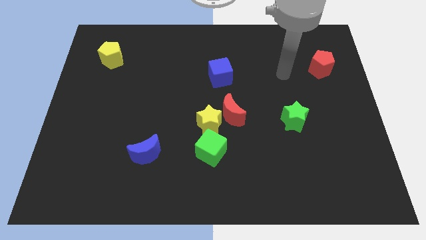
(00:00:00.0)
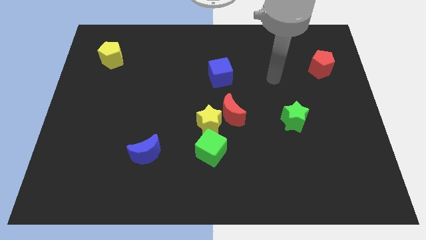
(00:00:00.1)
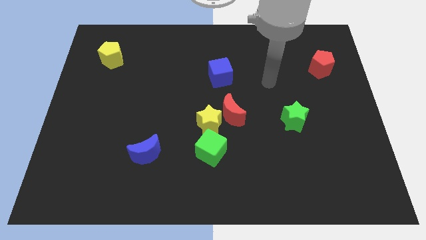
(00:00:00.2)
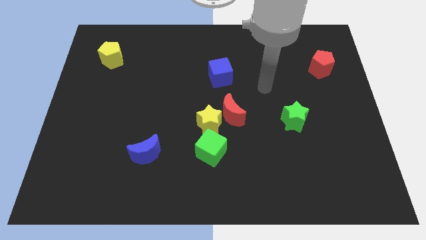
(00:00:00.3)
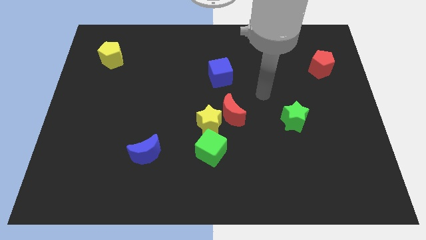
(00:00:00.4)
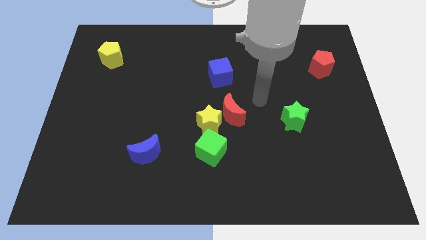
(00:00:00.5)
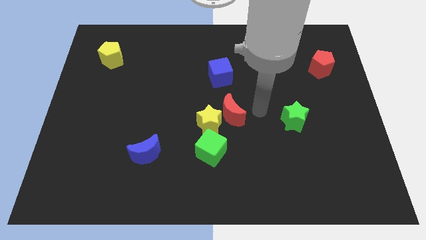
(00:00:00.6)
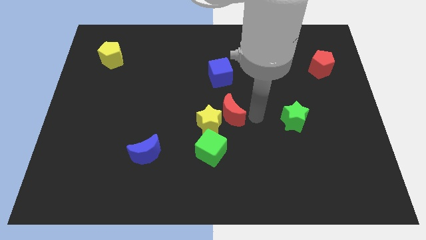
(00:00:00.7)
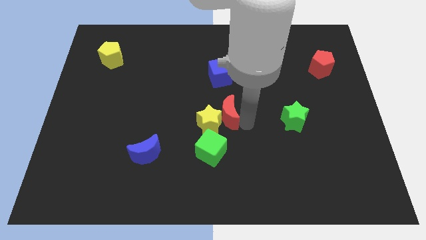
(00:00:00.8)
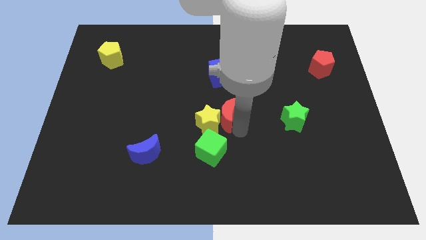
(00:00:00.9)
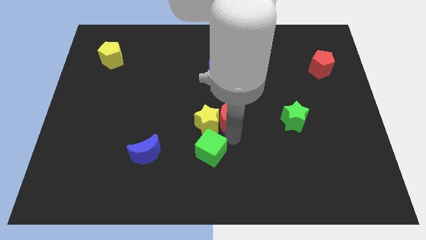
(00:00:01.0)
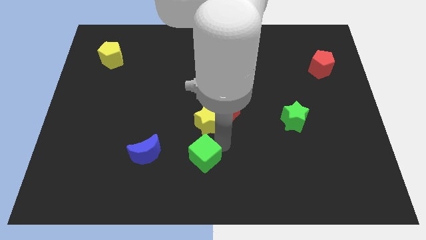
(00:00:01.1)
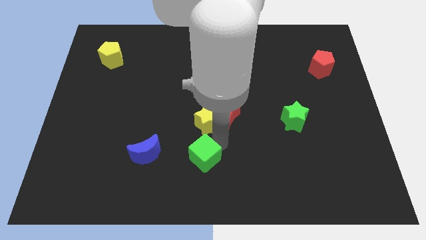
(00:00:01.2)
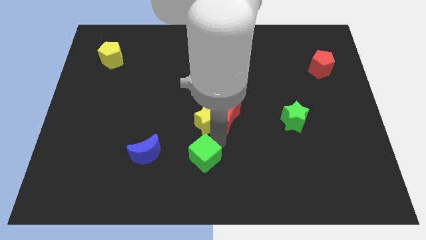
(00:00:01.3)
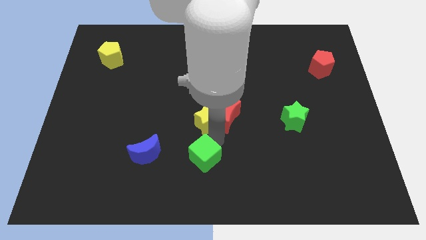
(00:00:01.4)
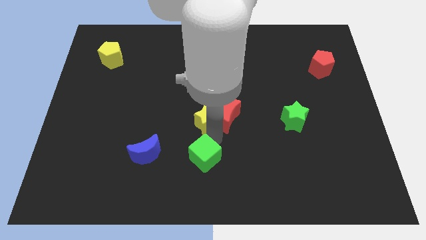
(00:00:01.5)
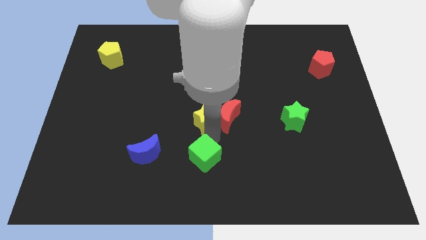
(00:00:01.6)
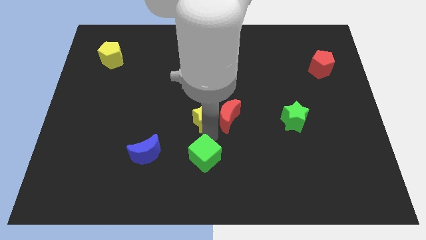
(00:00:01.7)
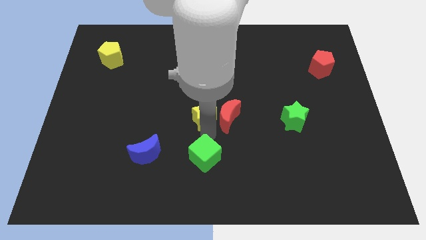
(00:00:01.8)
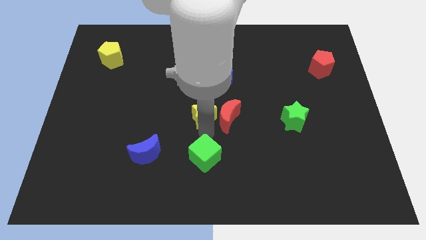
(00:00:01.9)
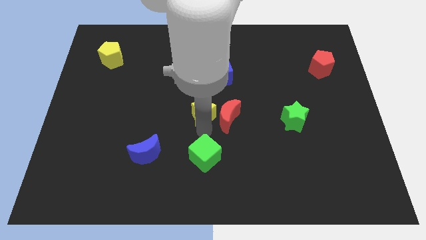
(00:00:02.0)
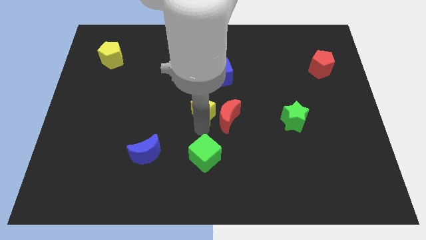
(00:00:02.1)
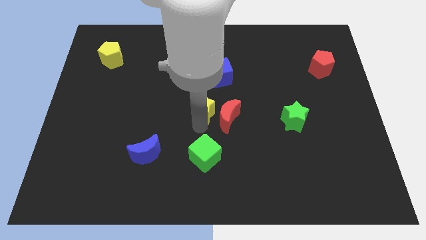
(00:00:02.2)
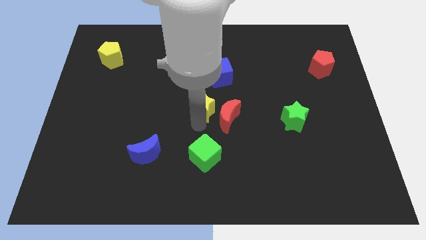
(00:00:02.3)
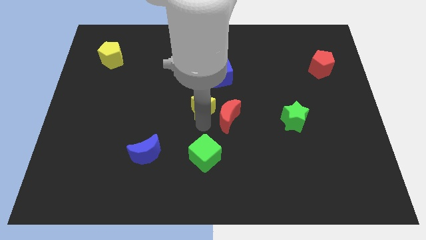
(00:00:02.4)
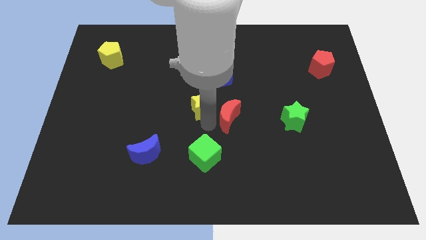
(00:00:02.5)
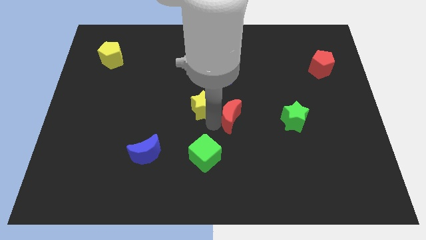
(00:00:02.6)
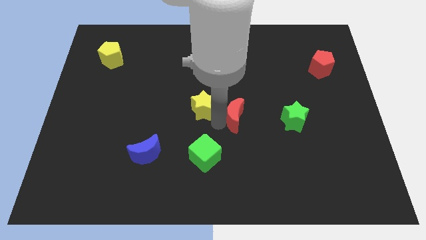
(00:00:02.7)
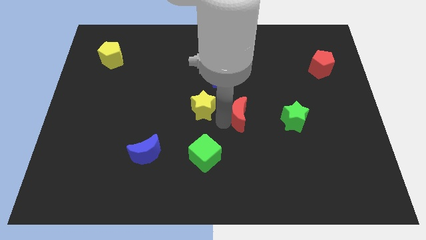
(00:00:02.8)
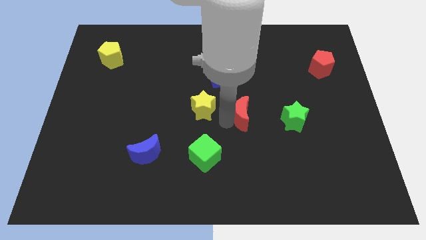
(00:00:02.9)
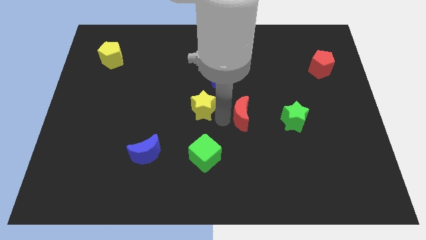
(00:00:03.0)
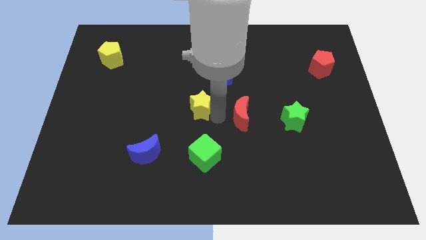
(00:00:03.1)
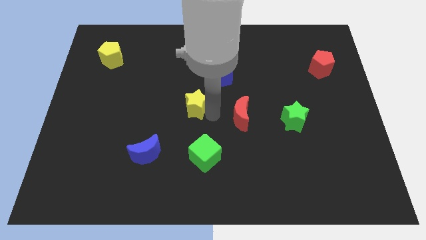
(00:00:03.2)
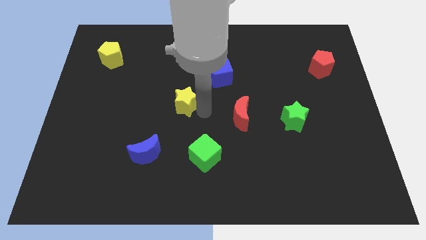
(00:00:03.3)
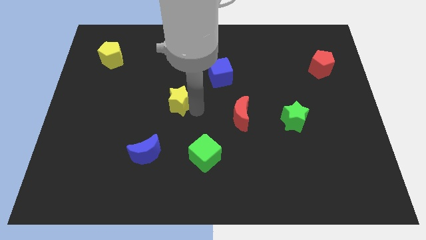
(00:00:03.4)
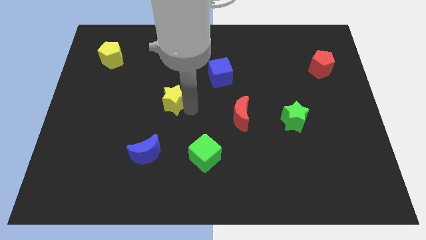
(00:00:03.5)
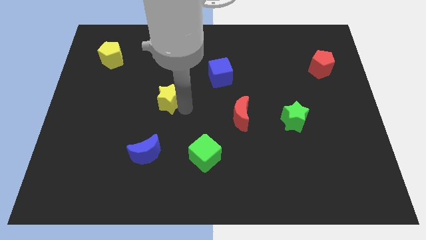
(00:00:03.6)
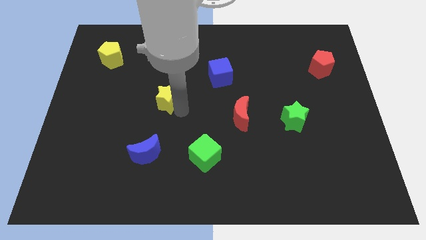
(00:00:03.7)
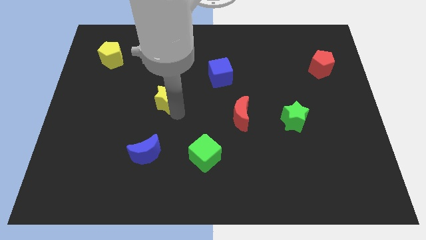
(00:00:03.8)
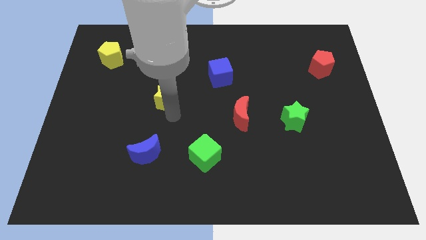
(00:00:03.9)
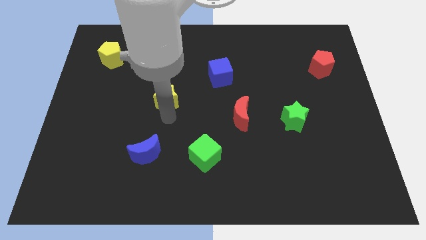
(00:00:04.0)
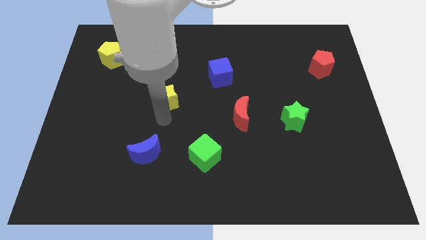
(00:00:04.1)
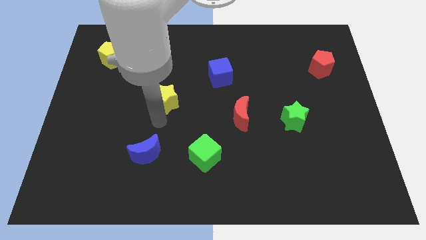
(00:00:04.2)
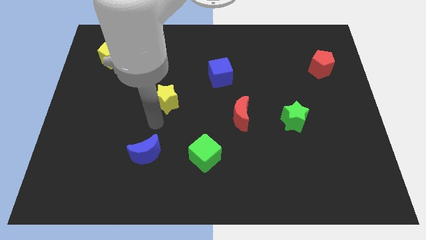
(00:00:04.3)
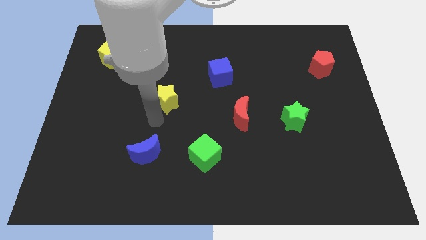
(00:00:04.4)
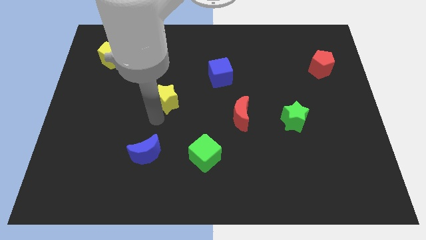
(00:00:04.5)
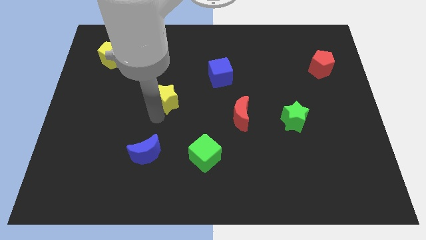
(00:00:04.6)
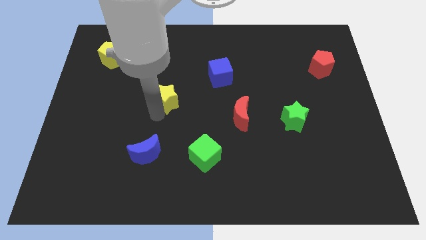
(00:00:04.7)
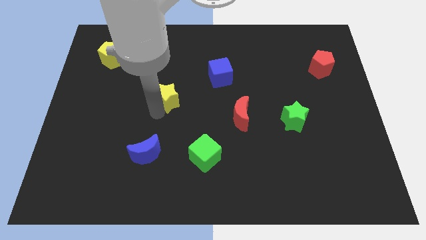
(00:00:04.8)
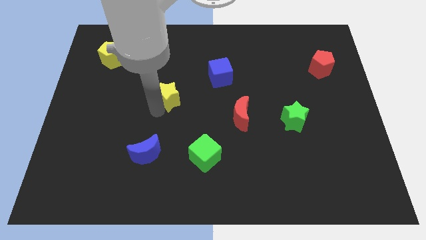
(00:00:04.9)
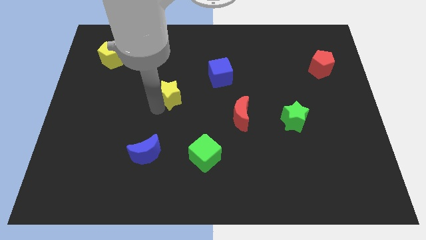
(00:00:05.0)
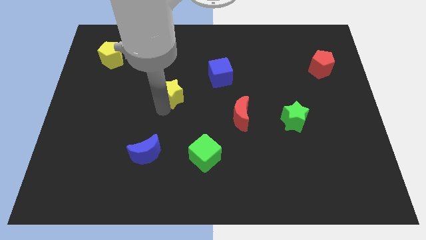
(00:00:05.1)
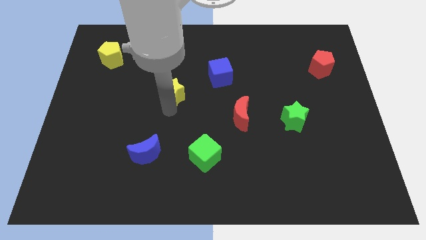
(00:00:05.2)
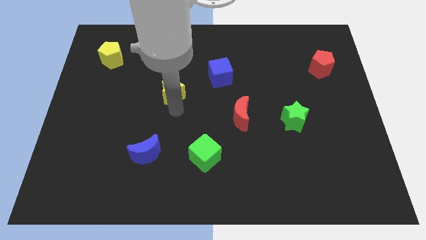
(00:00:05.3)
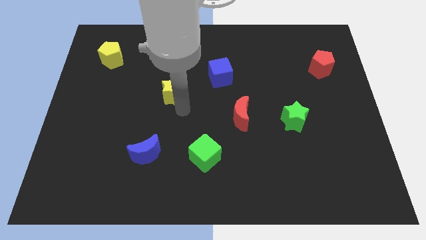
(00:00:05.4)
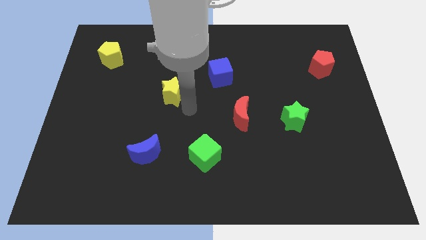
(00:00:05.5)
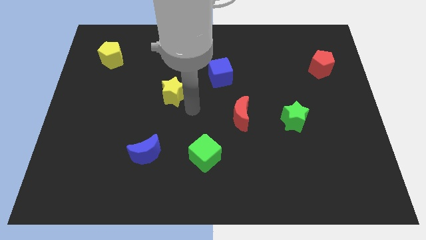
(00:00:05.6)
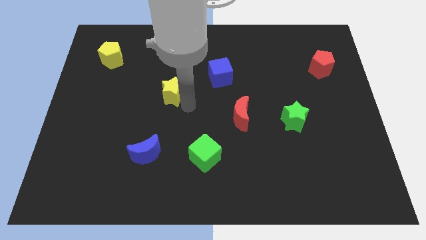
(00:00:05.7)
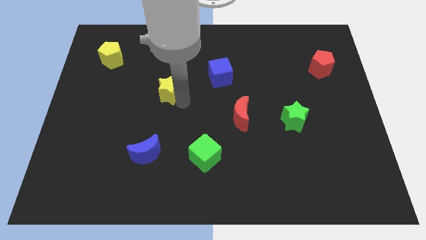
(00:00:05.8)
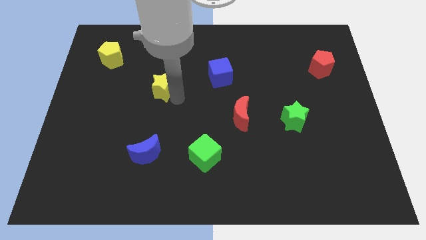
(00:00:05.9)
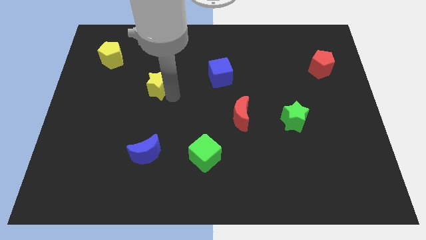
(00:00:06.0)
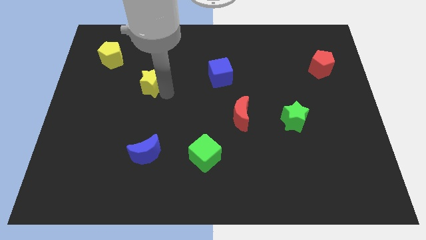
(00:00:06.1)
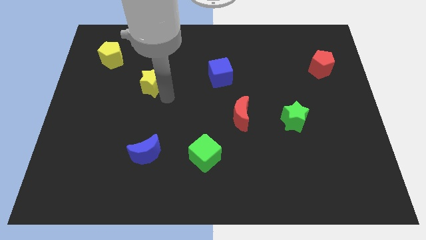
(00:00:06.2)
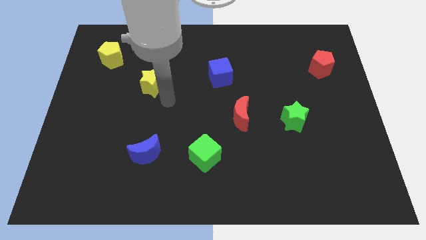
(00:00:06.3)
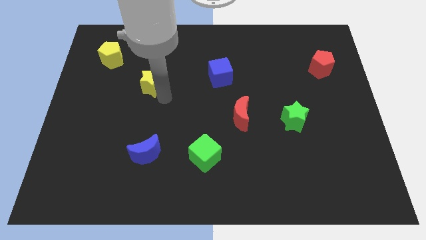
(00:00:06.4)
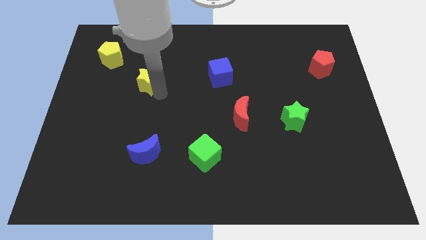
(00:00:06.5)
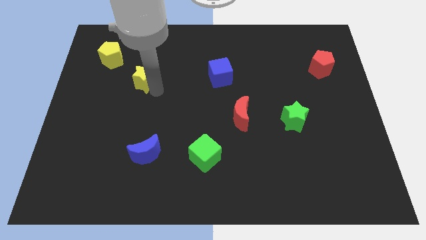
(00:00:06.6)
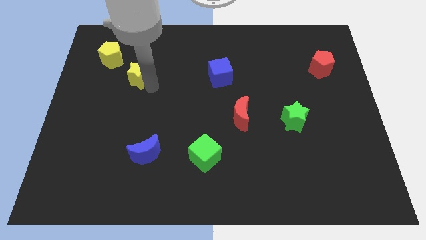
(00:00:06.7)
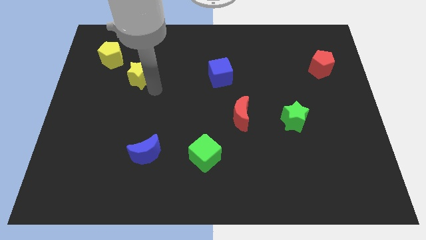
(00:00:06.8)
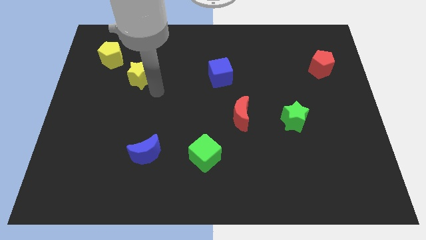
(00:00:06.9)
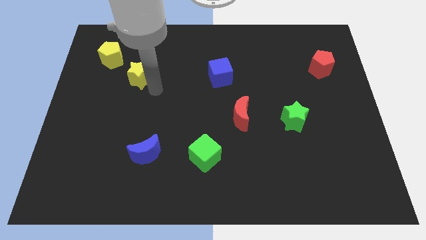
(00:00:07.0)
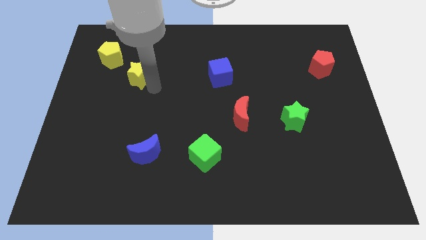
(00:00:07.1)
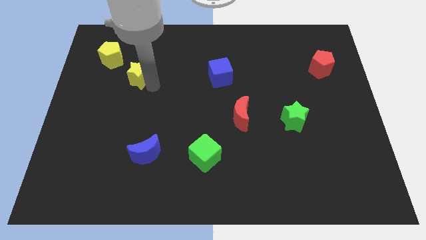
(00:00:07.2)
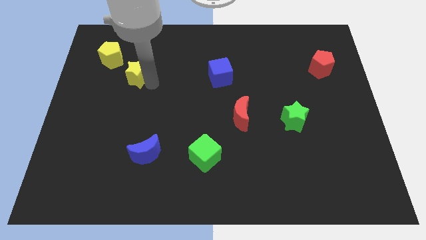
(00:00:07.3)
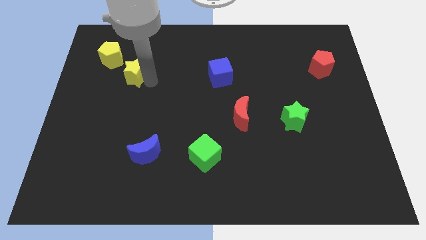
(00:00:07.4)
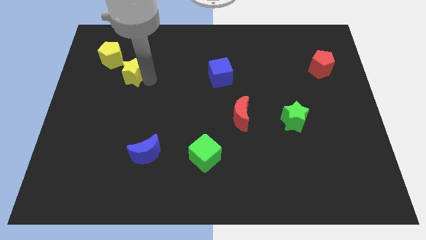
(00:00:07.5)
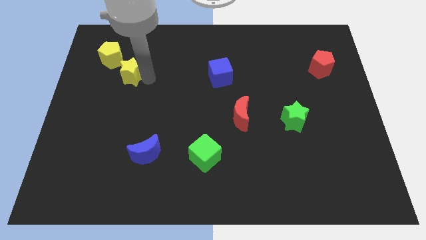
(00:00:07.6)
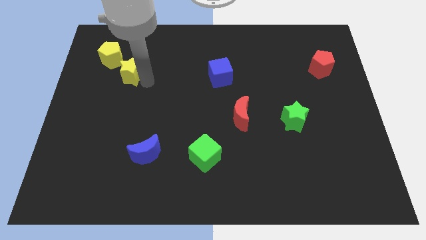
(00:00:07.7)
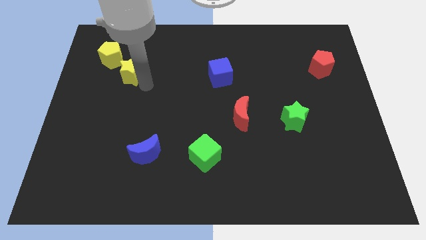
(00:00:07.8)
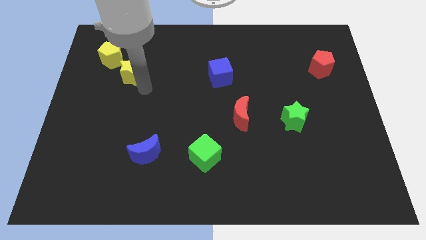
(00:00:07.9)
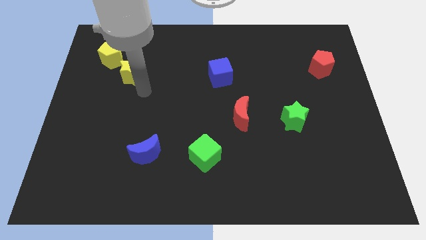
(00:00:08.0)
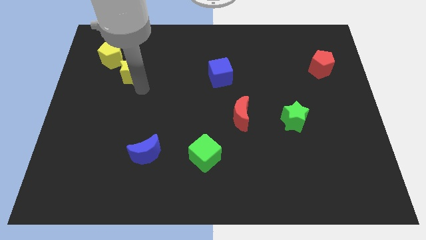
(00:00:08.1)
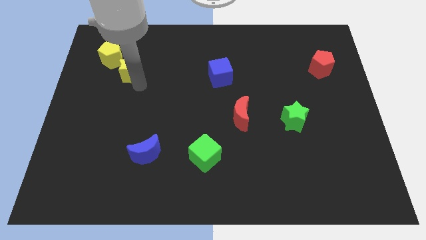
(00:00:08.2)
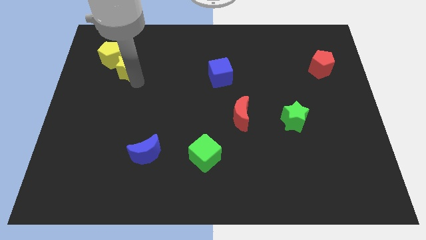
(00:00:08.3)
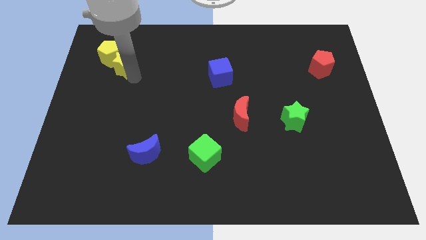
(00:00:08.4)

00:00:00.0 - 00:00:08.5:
push the yellow star to the yellow pentagon
